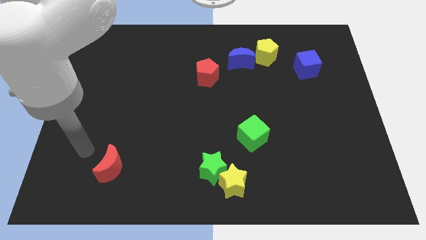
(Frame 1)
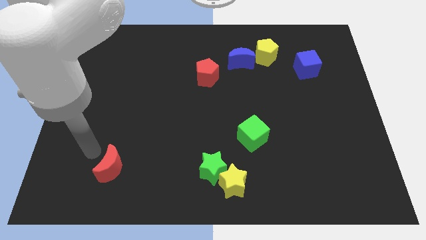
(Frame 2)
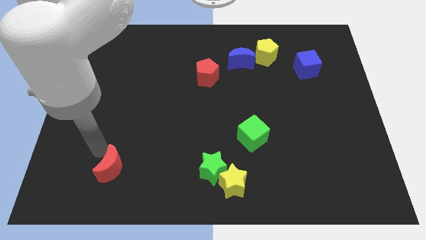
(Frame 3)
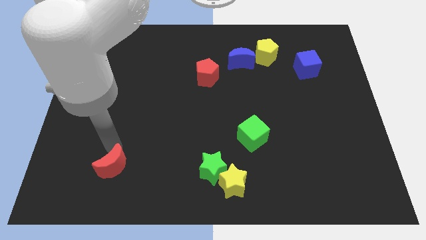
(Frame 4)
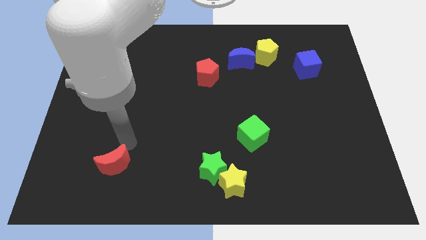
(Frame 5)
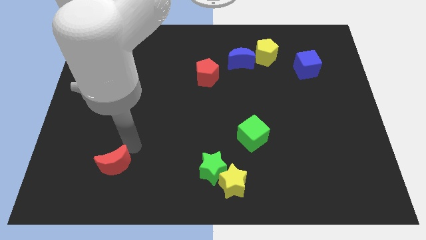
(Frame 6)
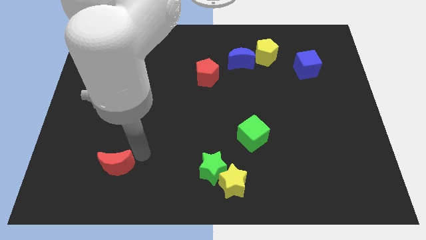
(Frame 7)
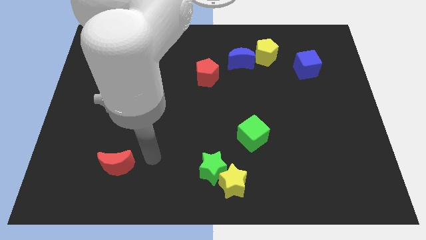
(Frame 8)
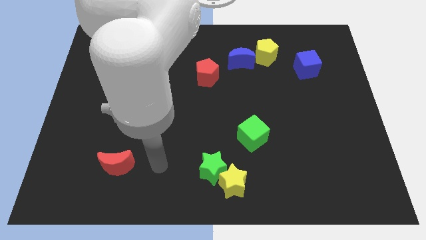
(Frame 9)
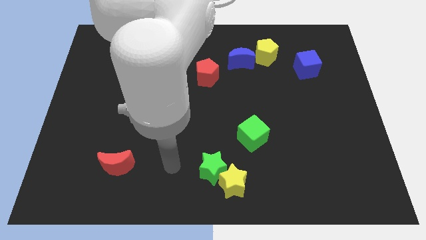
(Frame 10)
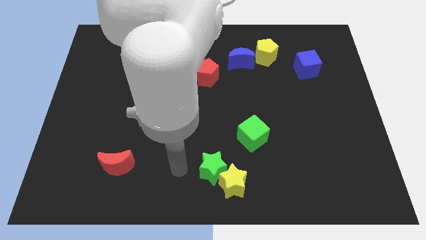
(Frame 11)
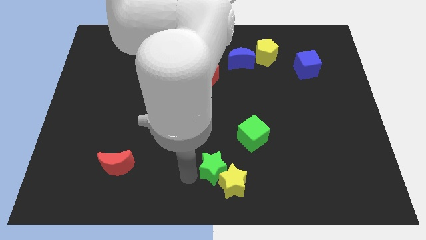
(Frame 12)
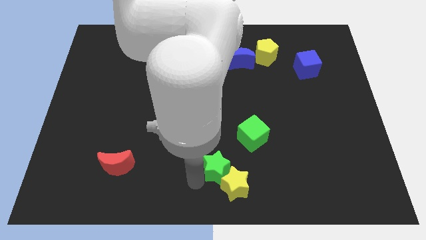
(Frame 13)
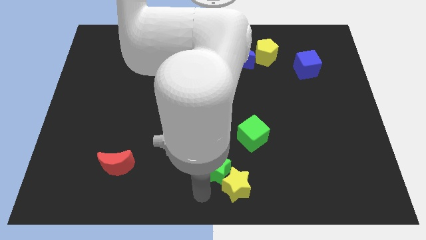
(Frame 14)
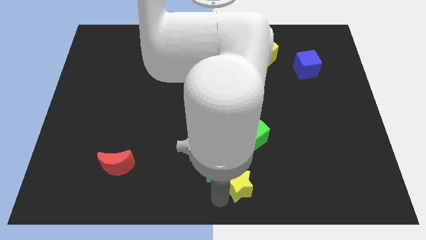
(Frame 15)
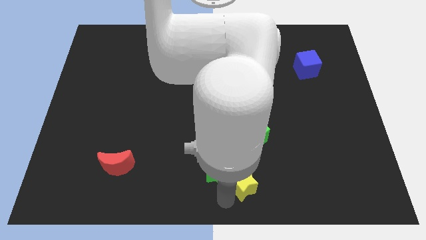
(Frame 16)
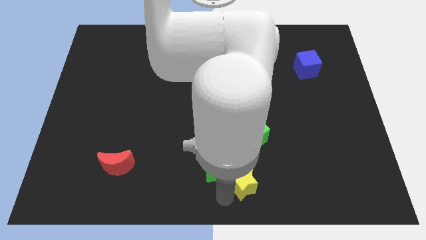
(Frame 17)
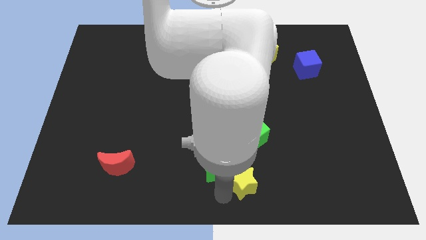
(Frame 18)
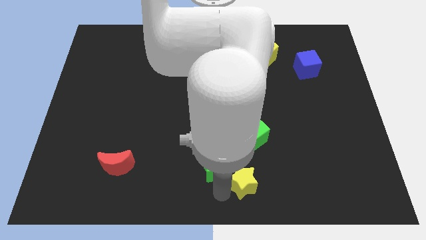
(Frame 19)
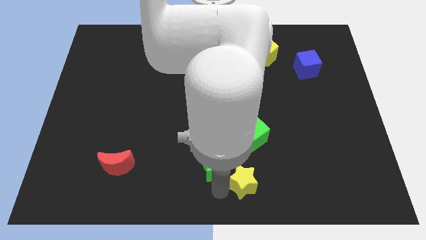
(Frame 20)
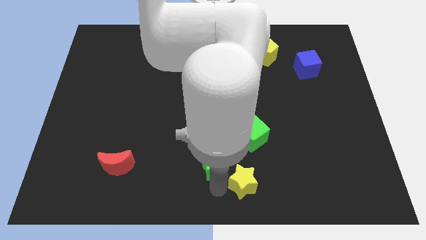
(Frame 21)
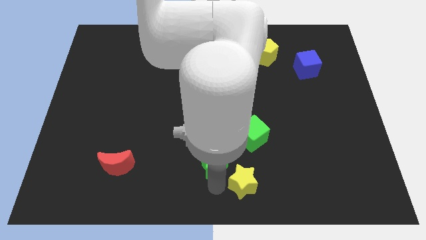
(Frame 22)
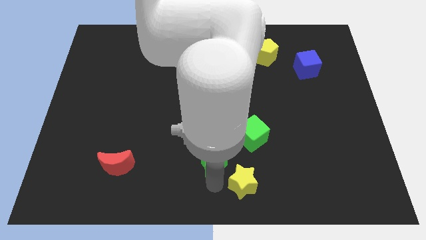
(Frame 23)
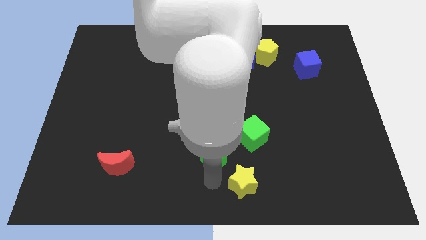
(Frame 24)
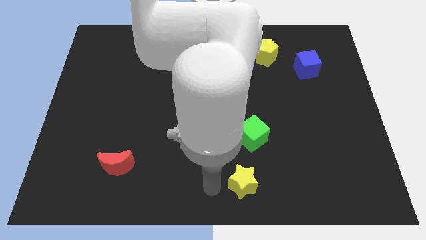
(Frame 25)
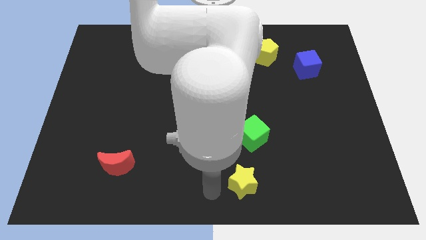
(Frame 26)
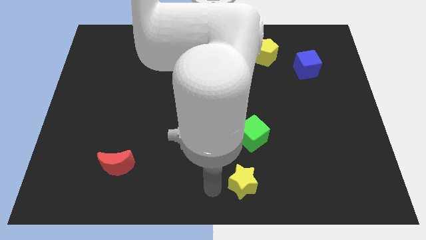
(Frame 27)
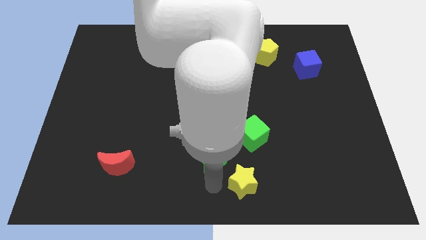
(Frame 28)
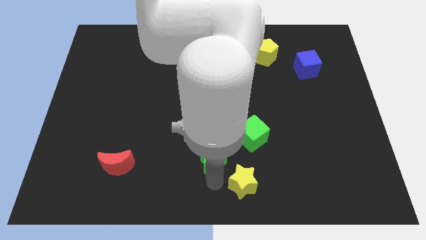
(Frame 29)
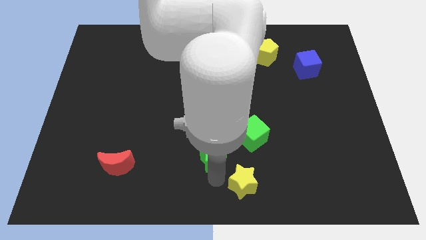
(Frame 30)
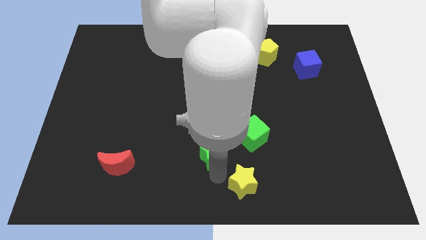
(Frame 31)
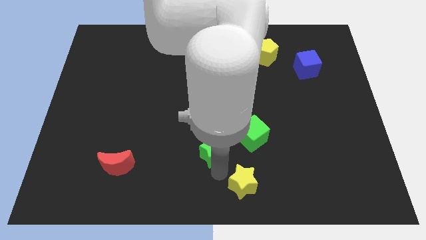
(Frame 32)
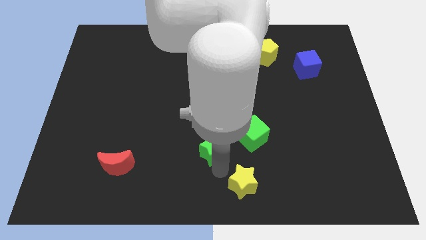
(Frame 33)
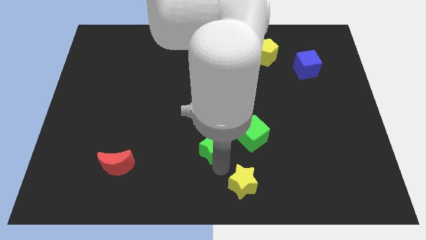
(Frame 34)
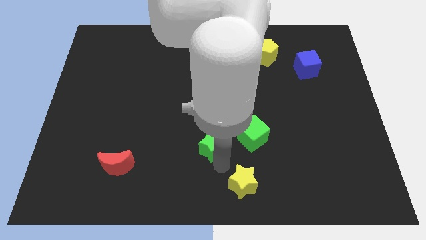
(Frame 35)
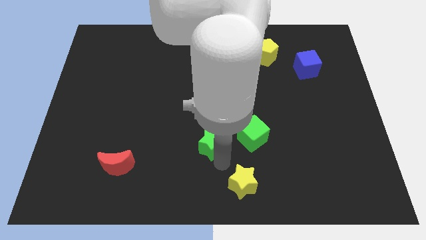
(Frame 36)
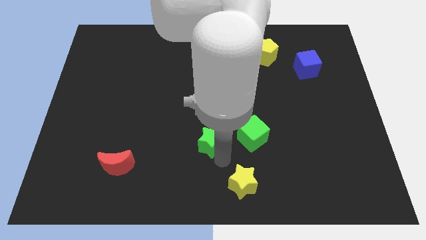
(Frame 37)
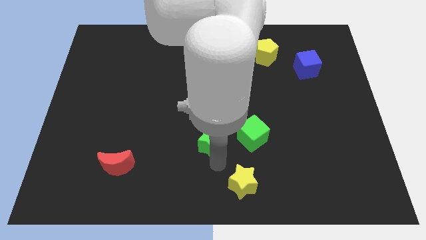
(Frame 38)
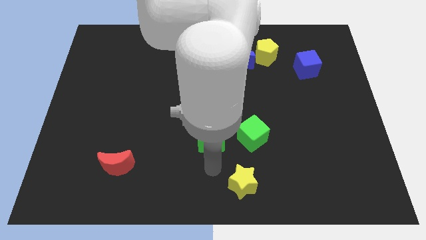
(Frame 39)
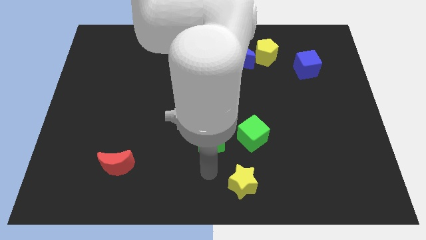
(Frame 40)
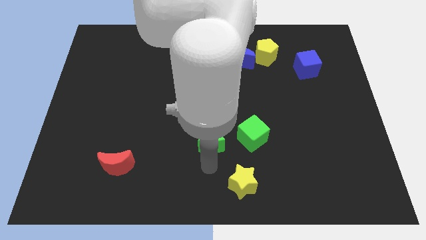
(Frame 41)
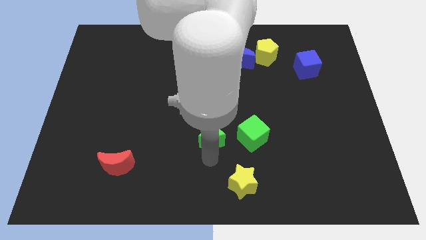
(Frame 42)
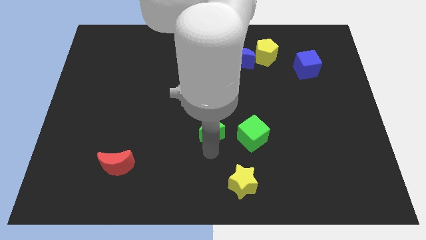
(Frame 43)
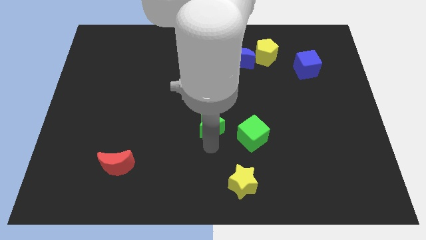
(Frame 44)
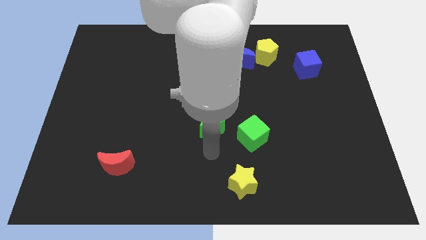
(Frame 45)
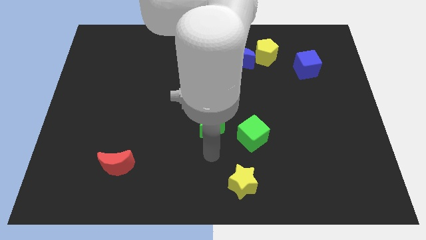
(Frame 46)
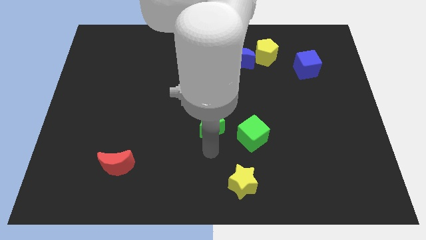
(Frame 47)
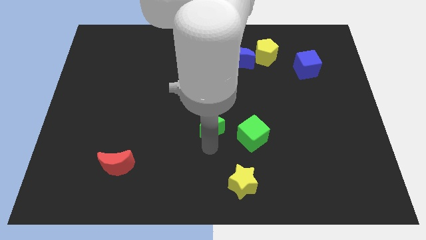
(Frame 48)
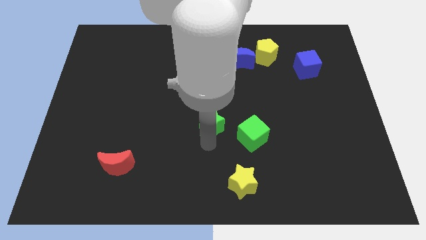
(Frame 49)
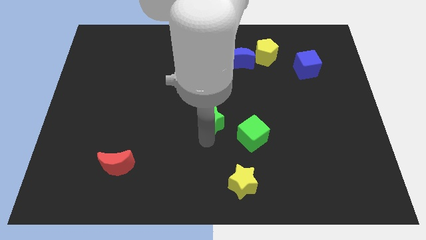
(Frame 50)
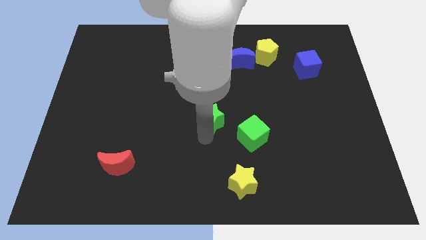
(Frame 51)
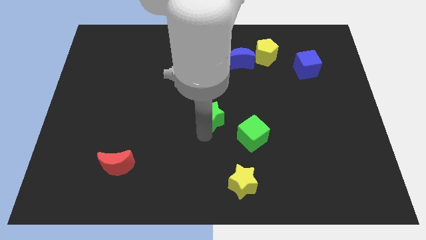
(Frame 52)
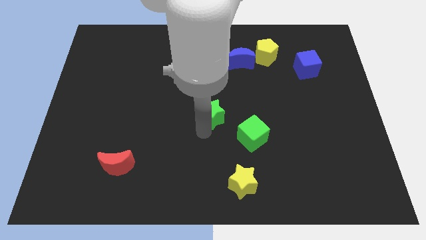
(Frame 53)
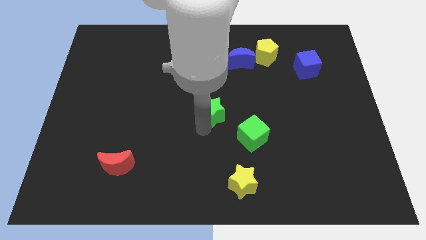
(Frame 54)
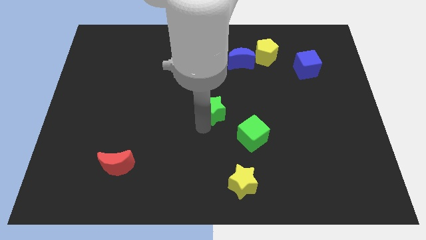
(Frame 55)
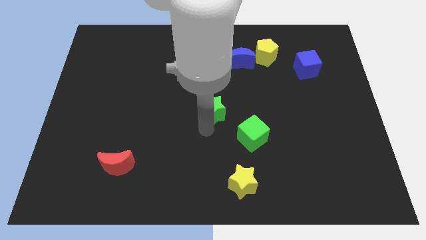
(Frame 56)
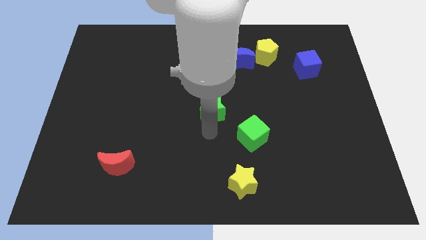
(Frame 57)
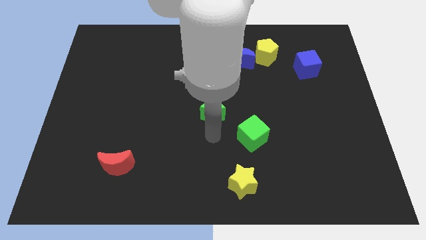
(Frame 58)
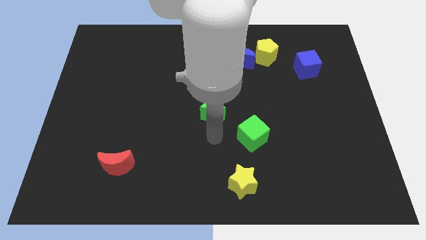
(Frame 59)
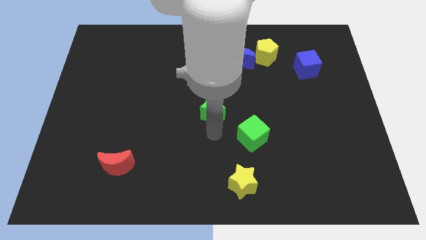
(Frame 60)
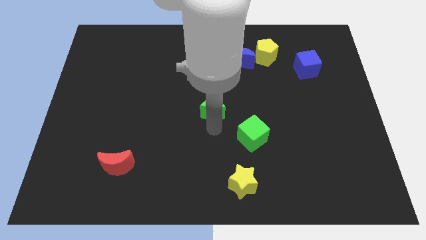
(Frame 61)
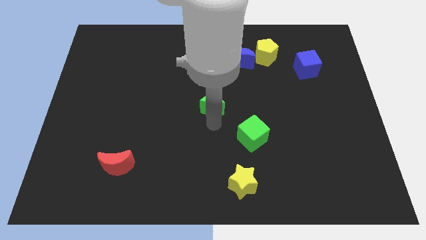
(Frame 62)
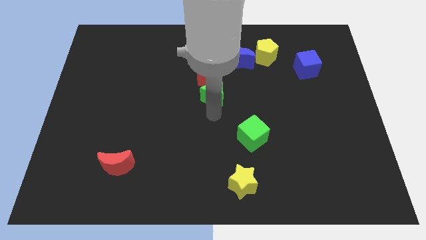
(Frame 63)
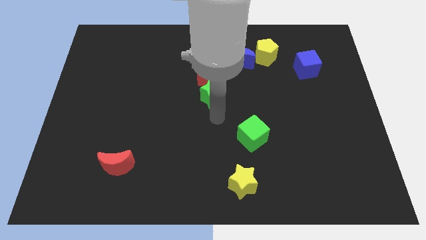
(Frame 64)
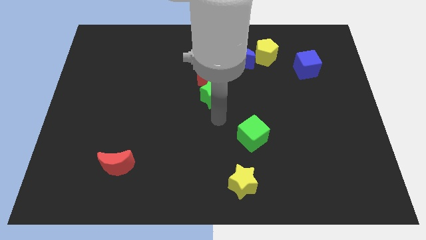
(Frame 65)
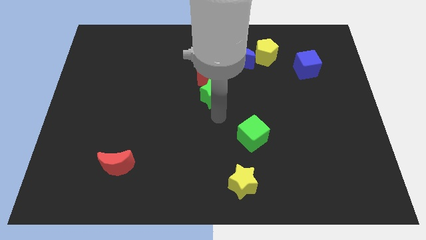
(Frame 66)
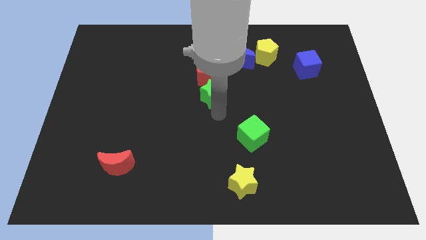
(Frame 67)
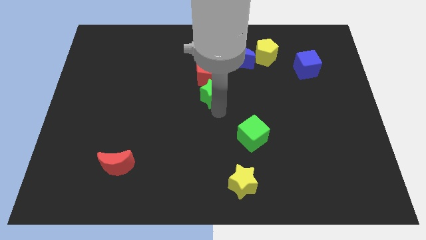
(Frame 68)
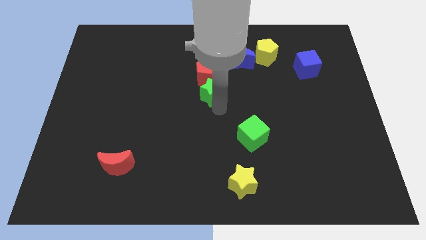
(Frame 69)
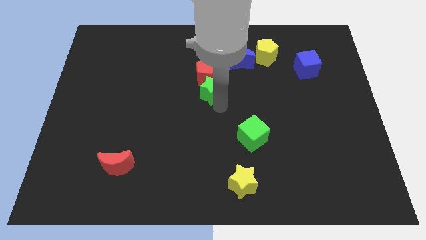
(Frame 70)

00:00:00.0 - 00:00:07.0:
move the green star next to the red pentagon

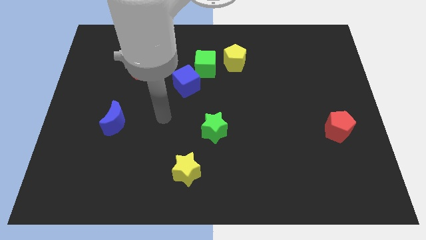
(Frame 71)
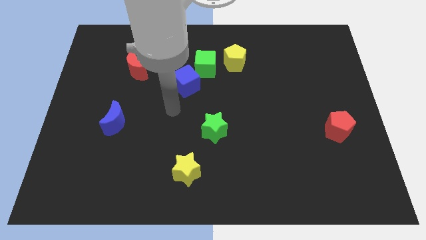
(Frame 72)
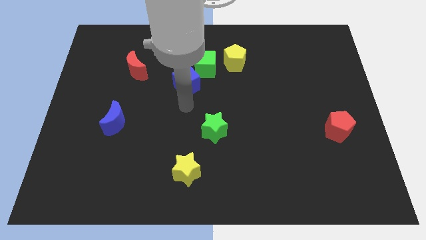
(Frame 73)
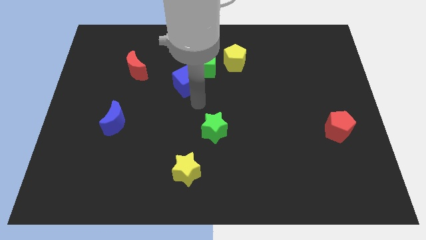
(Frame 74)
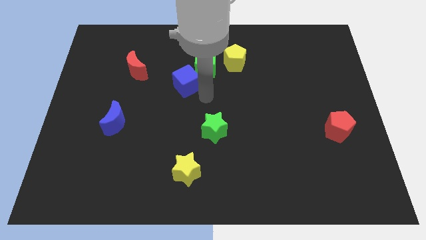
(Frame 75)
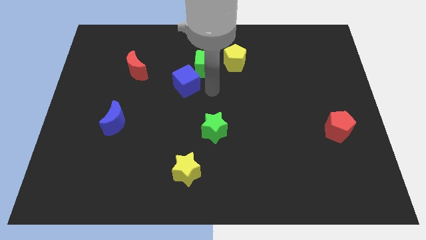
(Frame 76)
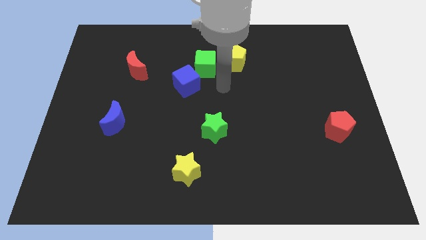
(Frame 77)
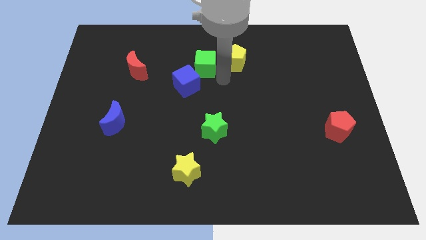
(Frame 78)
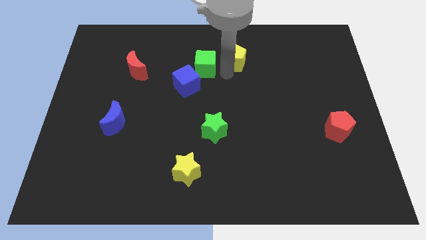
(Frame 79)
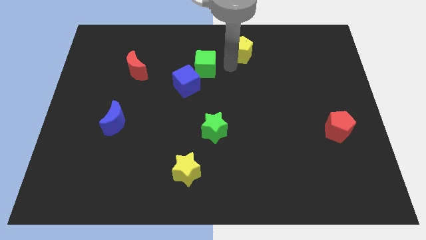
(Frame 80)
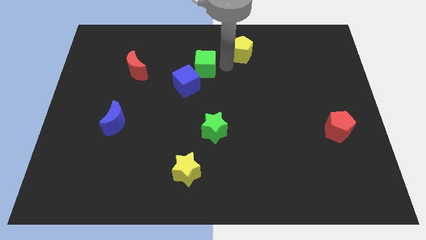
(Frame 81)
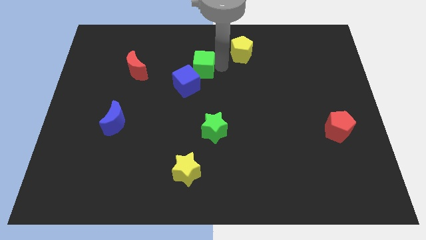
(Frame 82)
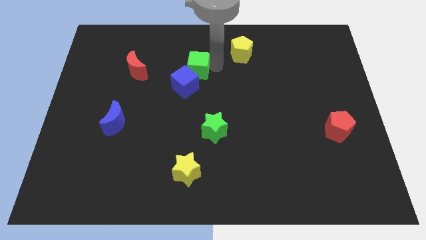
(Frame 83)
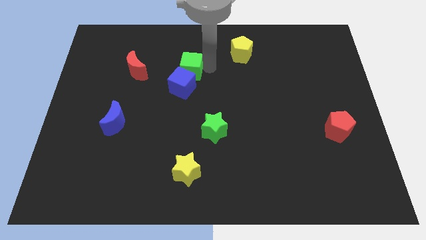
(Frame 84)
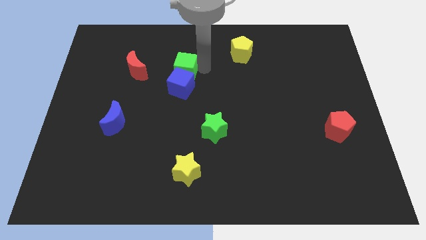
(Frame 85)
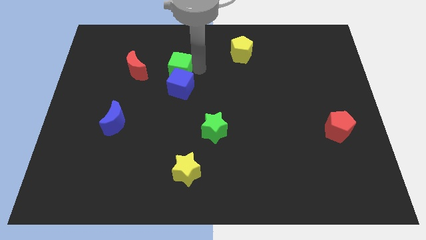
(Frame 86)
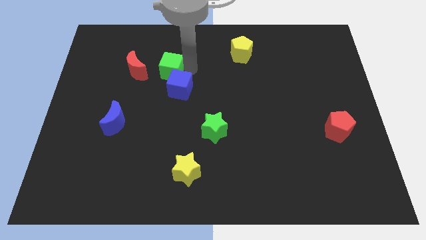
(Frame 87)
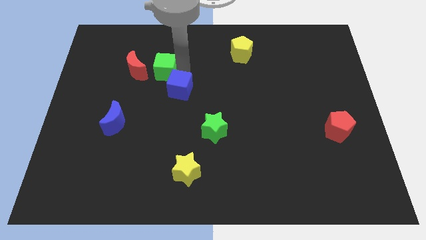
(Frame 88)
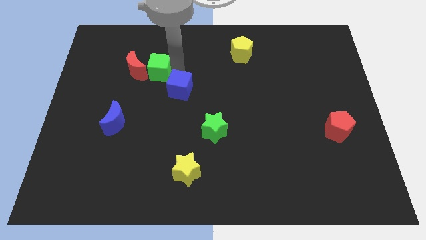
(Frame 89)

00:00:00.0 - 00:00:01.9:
put the green cube towards the red moon
